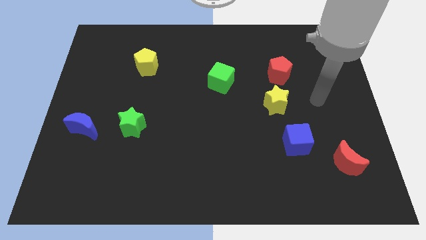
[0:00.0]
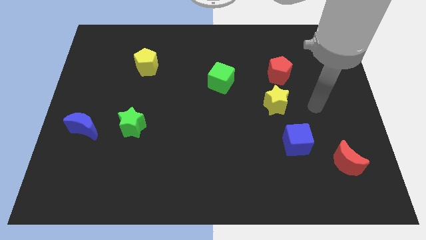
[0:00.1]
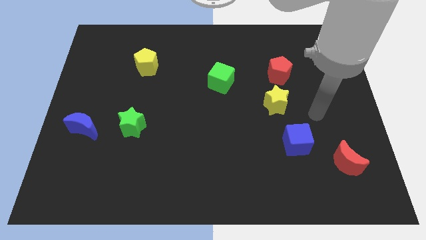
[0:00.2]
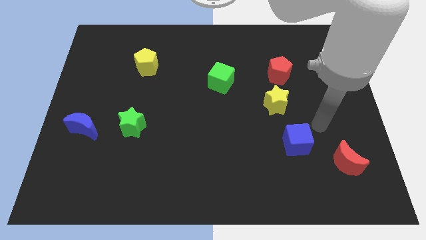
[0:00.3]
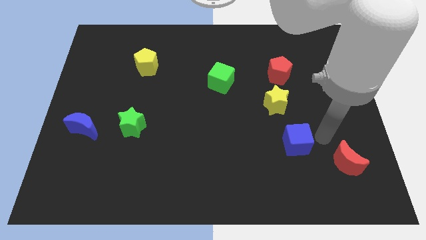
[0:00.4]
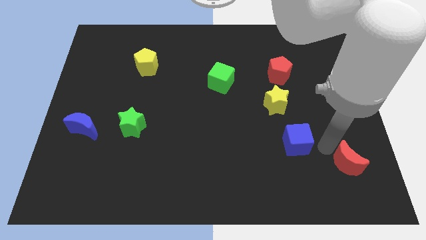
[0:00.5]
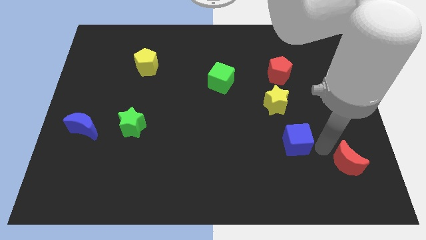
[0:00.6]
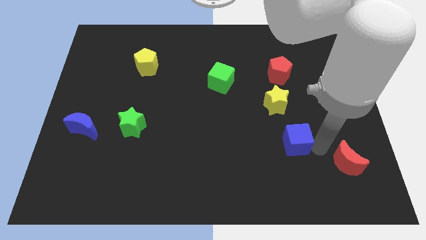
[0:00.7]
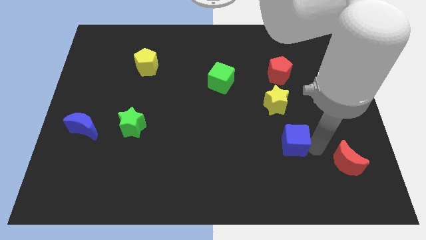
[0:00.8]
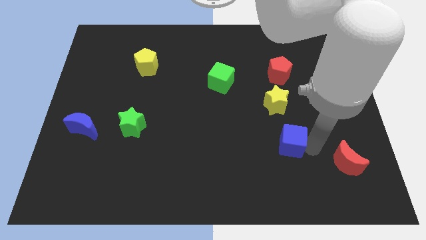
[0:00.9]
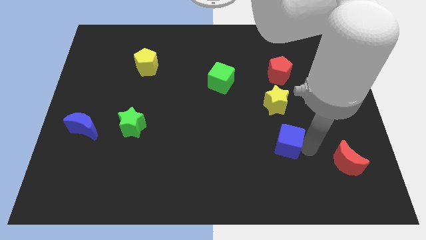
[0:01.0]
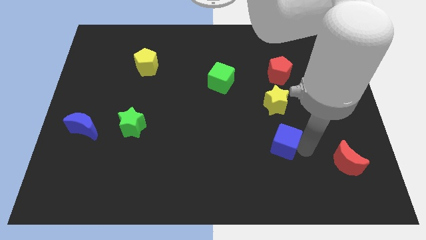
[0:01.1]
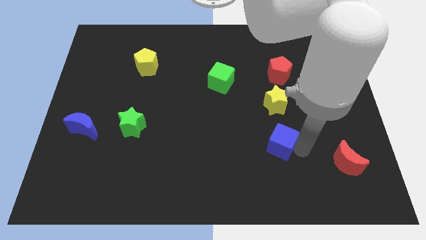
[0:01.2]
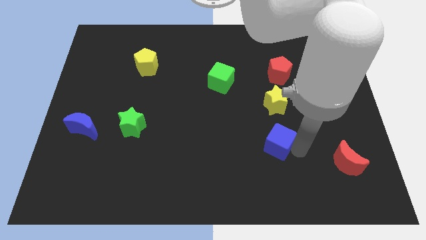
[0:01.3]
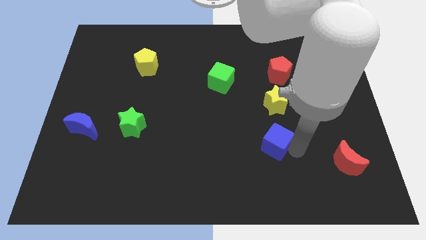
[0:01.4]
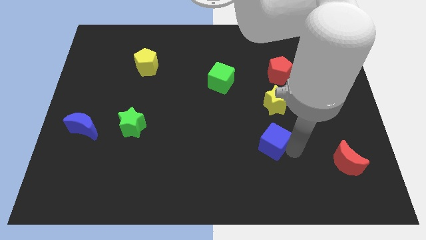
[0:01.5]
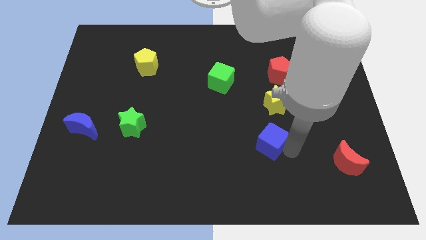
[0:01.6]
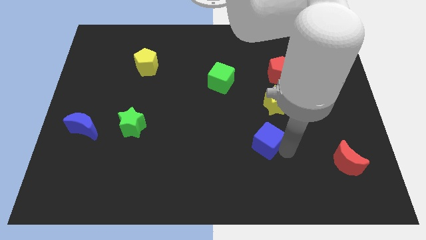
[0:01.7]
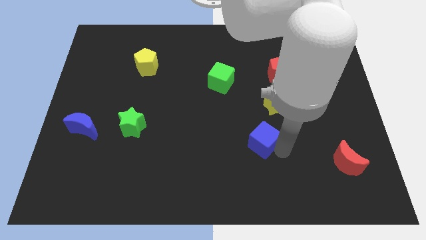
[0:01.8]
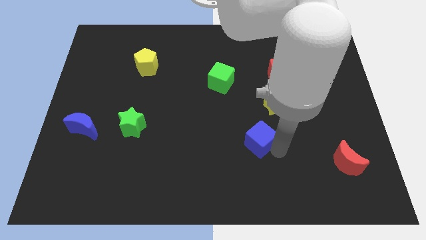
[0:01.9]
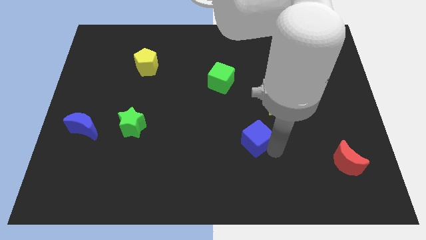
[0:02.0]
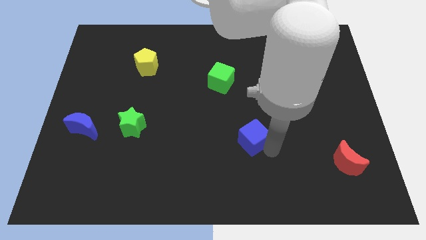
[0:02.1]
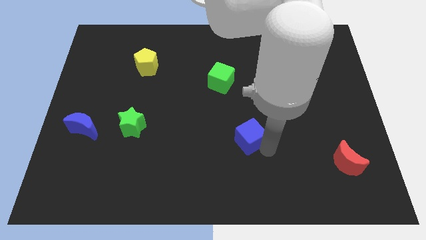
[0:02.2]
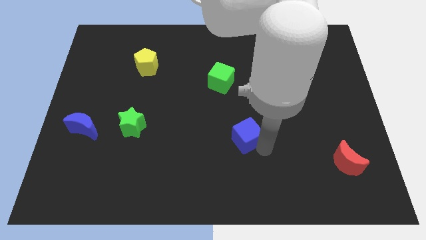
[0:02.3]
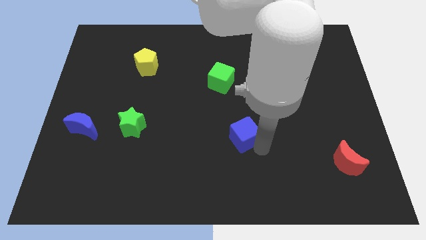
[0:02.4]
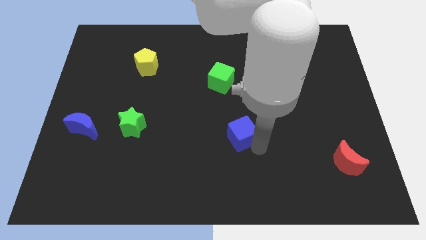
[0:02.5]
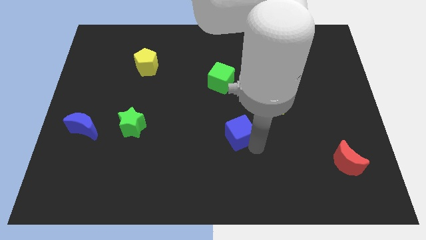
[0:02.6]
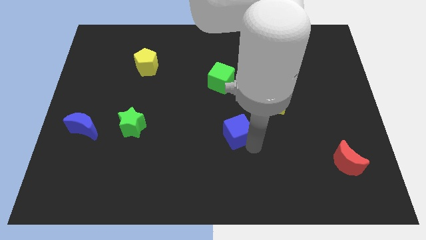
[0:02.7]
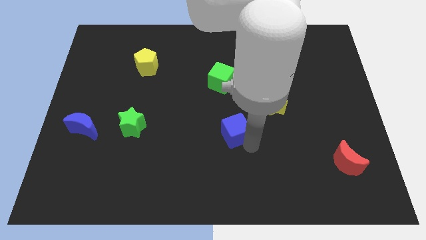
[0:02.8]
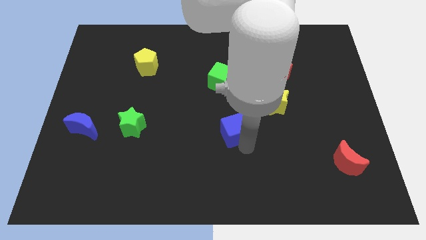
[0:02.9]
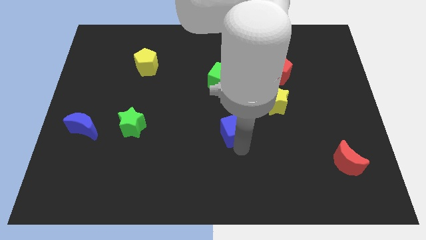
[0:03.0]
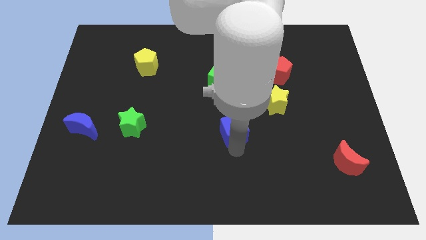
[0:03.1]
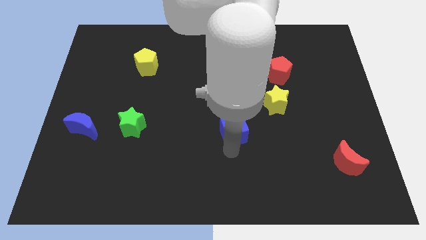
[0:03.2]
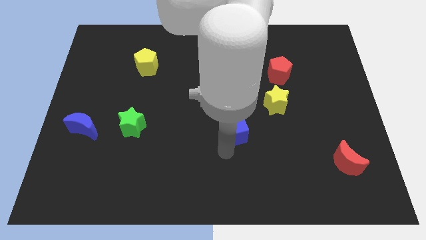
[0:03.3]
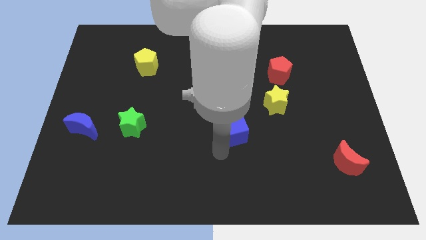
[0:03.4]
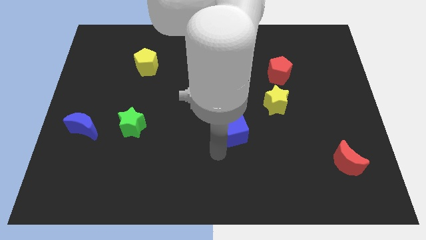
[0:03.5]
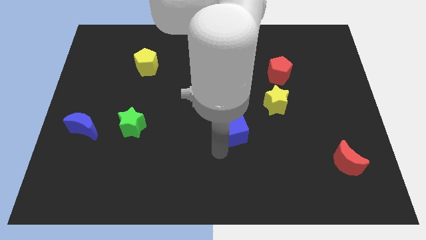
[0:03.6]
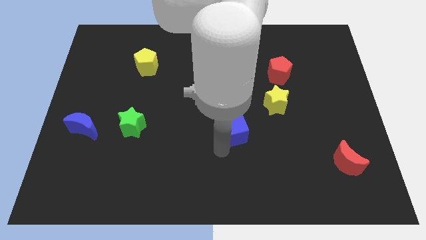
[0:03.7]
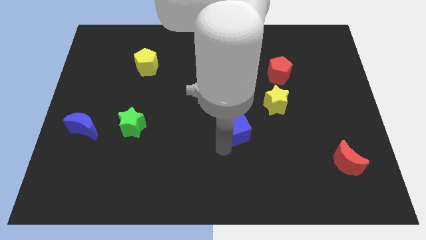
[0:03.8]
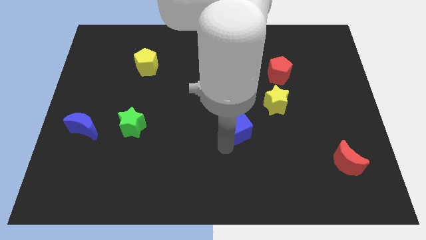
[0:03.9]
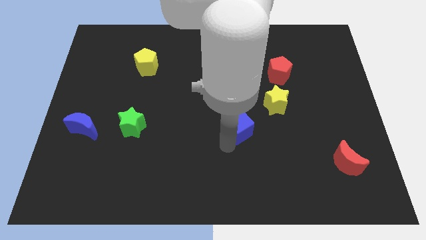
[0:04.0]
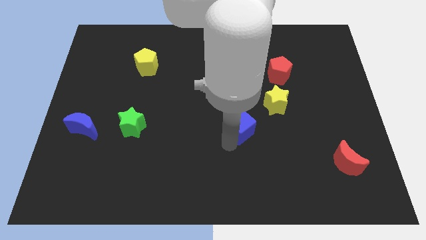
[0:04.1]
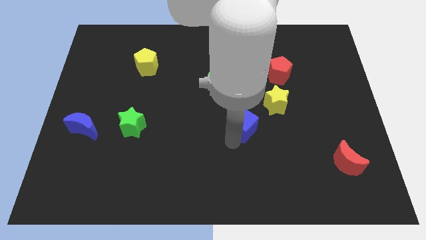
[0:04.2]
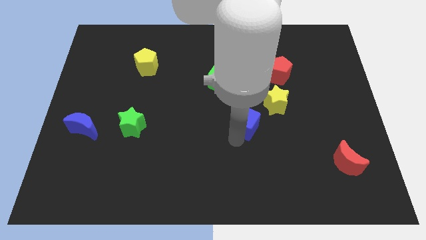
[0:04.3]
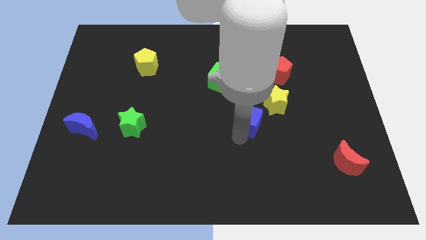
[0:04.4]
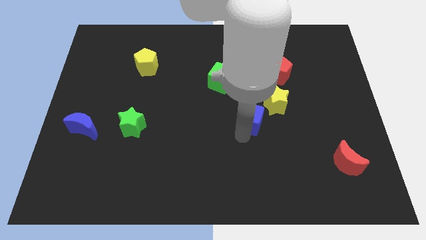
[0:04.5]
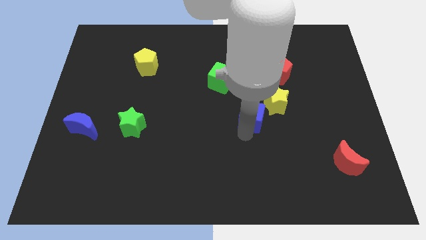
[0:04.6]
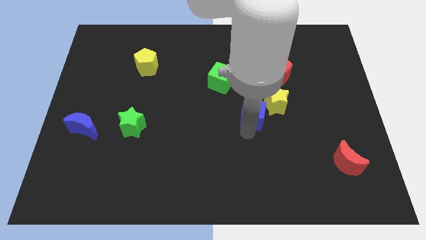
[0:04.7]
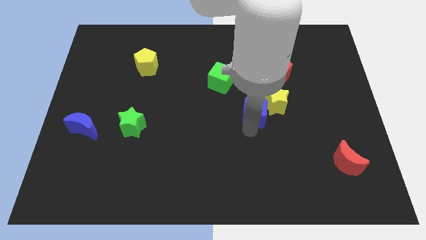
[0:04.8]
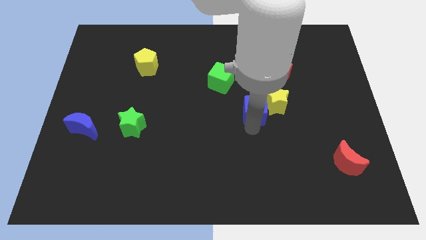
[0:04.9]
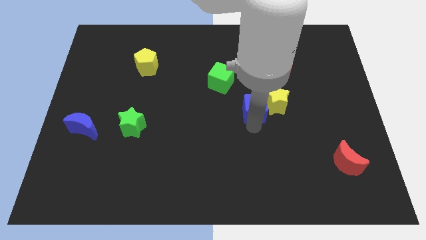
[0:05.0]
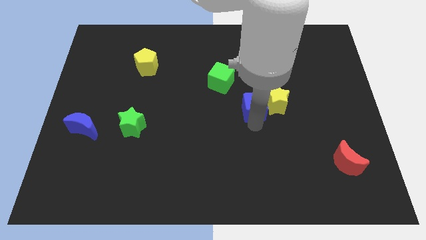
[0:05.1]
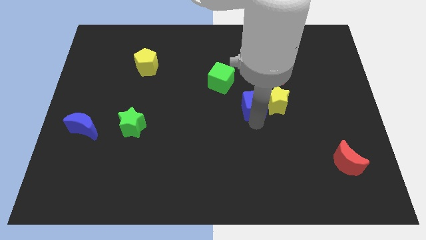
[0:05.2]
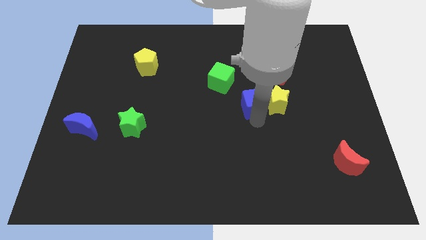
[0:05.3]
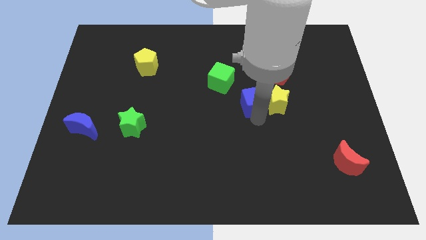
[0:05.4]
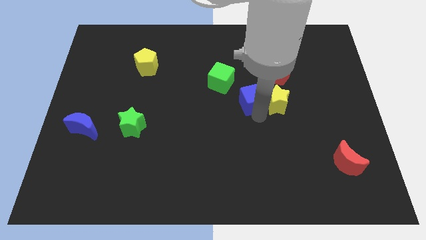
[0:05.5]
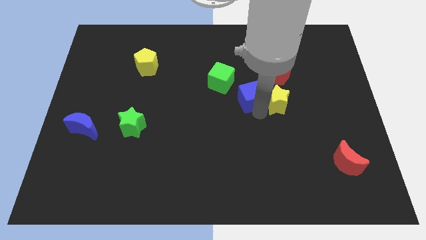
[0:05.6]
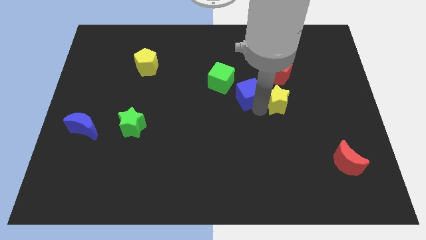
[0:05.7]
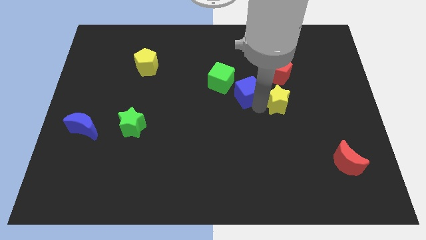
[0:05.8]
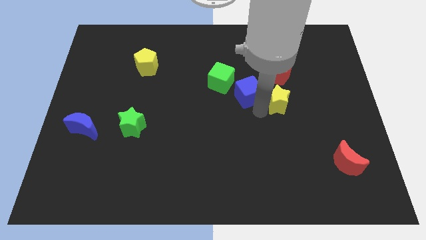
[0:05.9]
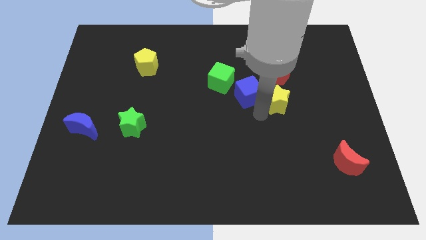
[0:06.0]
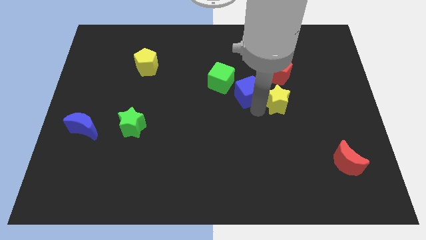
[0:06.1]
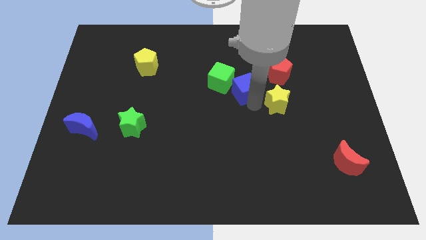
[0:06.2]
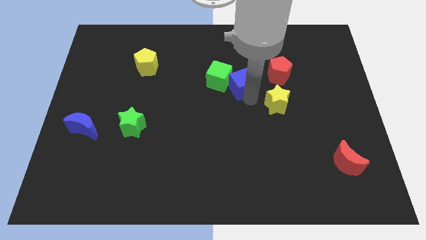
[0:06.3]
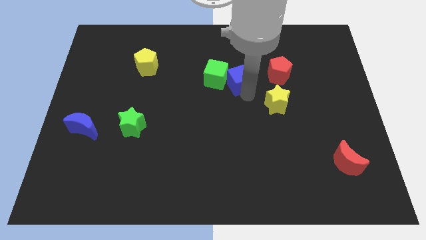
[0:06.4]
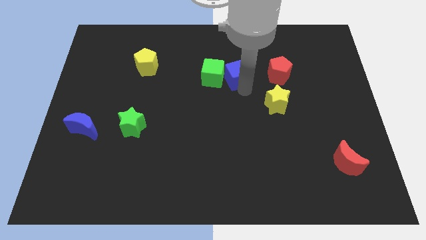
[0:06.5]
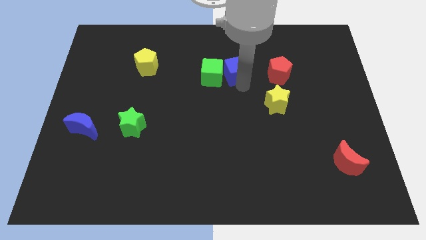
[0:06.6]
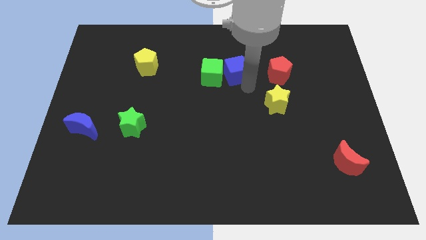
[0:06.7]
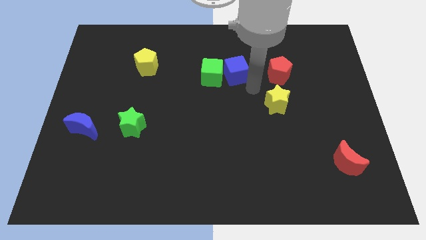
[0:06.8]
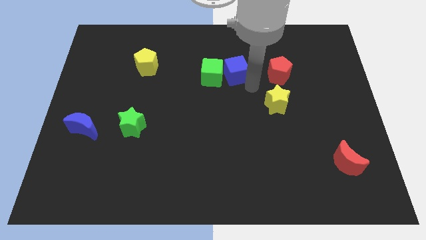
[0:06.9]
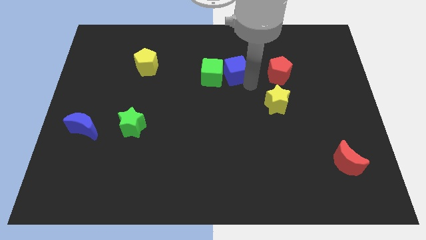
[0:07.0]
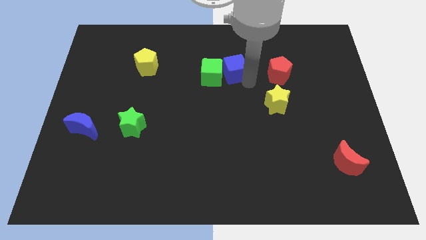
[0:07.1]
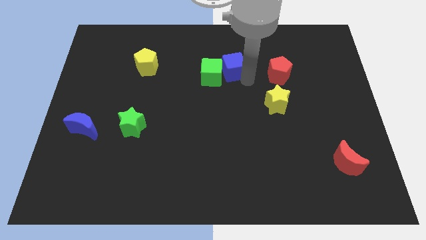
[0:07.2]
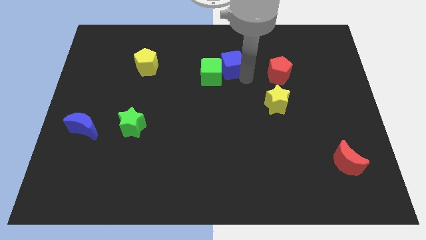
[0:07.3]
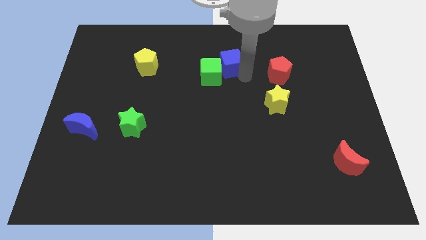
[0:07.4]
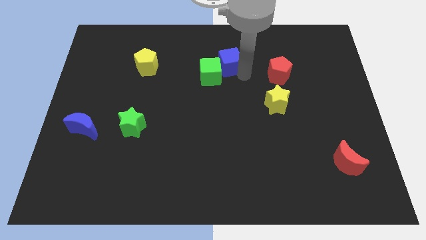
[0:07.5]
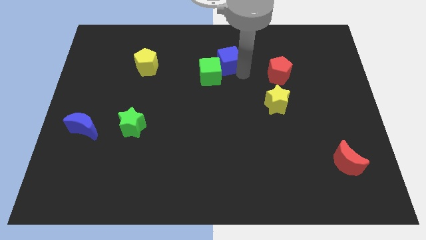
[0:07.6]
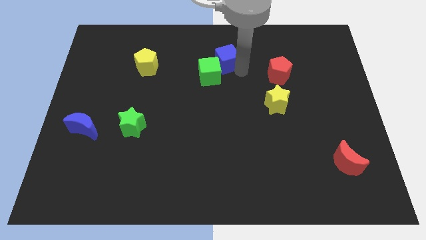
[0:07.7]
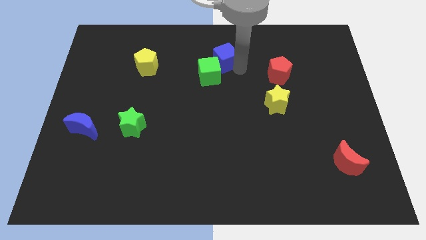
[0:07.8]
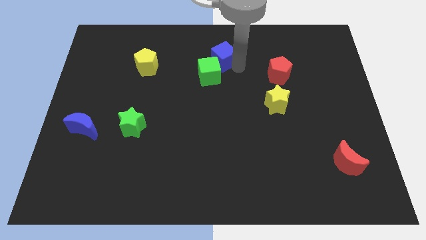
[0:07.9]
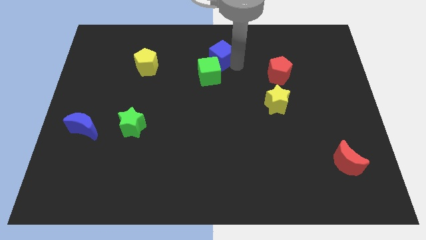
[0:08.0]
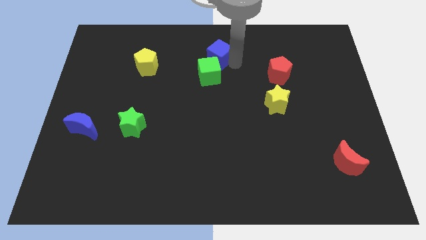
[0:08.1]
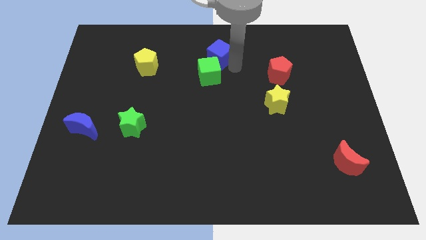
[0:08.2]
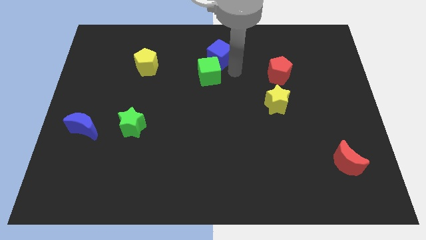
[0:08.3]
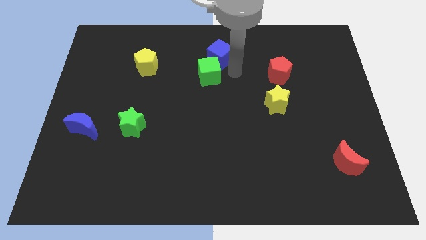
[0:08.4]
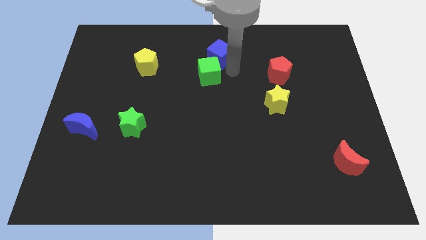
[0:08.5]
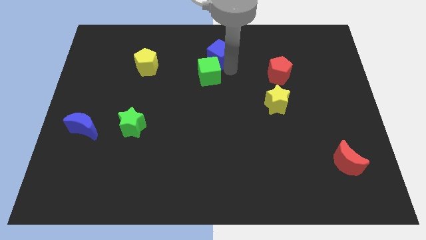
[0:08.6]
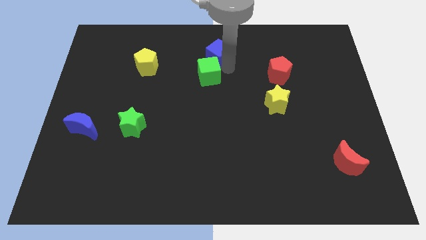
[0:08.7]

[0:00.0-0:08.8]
slide the blue cube to the towards your base
